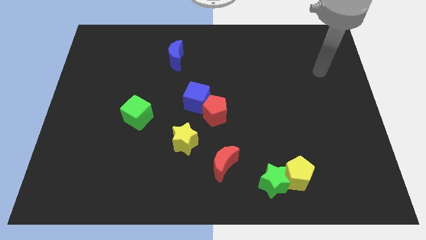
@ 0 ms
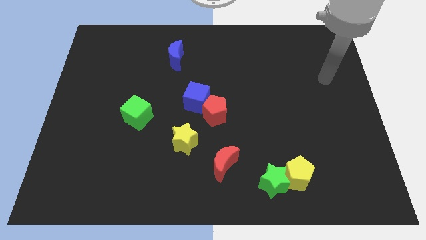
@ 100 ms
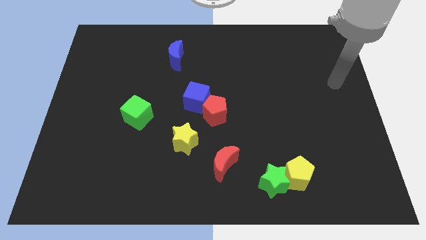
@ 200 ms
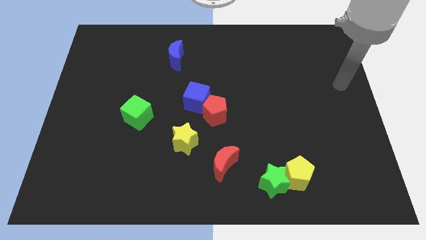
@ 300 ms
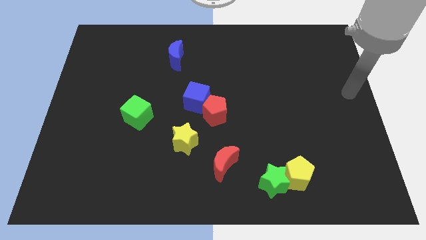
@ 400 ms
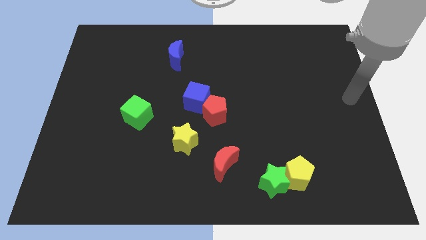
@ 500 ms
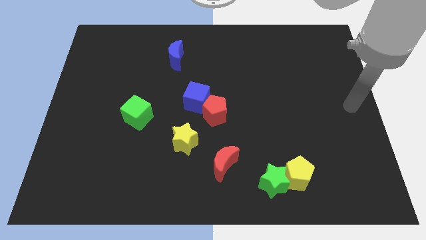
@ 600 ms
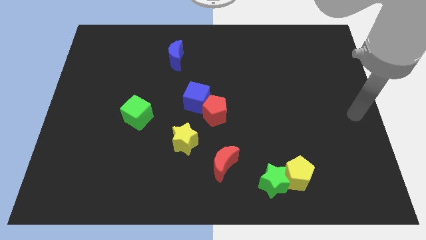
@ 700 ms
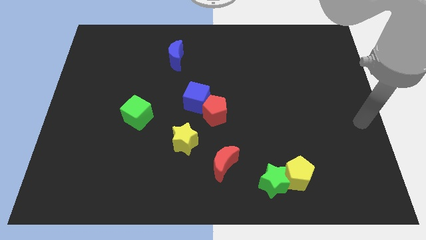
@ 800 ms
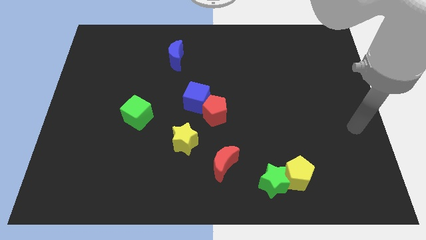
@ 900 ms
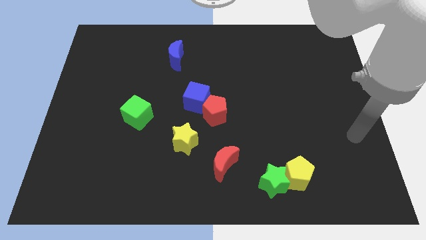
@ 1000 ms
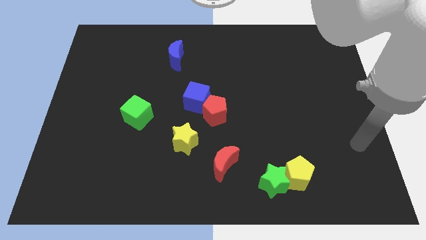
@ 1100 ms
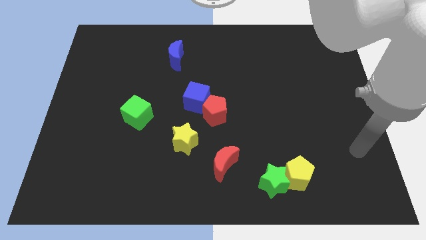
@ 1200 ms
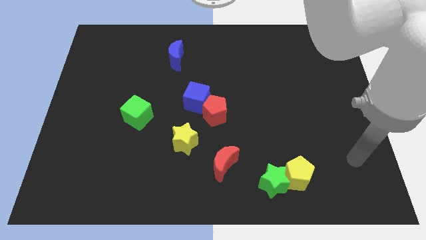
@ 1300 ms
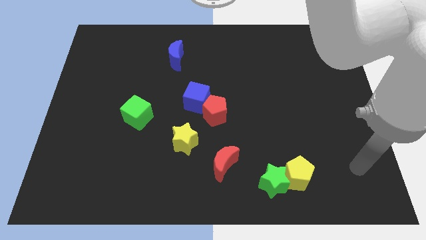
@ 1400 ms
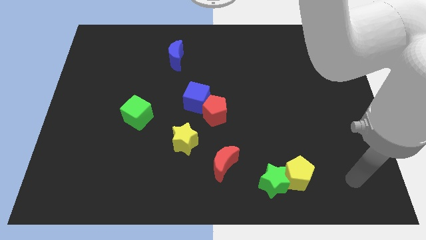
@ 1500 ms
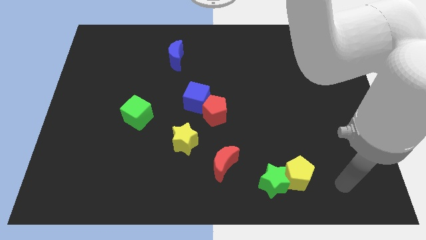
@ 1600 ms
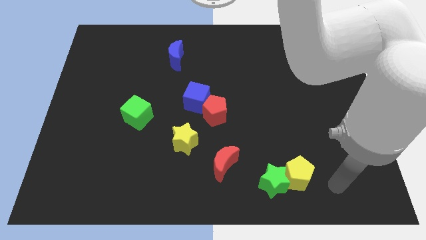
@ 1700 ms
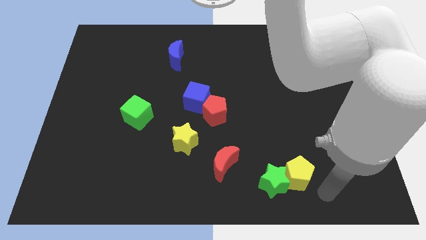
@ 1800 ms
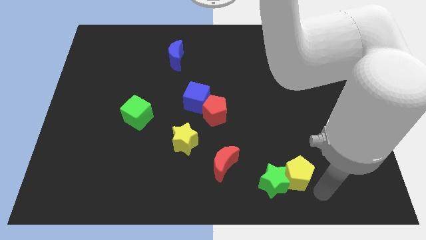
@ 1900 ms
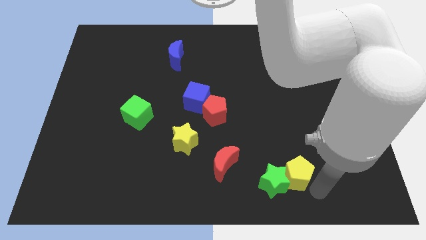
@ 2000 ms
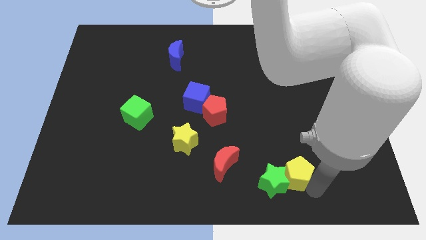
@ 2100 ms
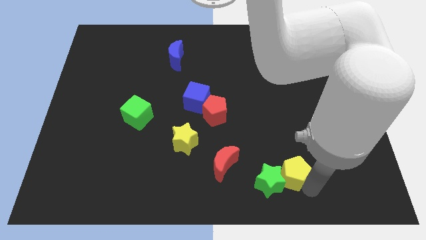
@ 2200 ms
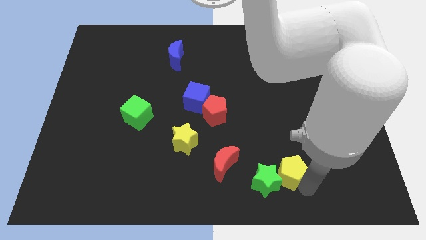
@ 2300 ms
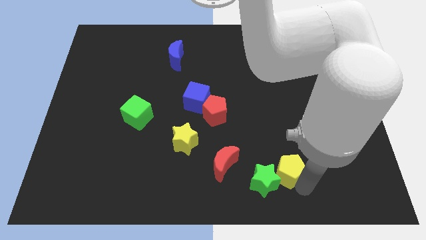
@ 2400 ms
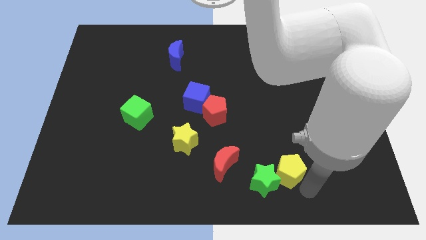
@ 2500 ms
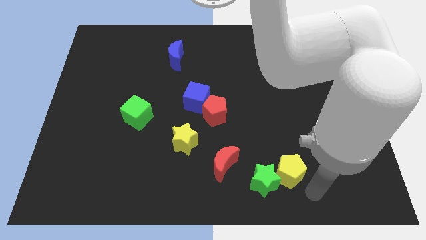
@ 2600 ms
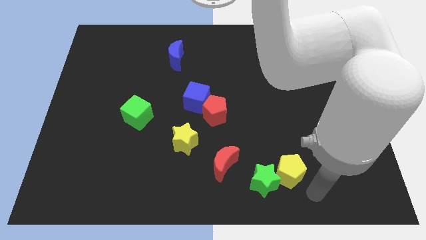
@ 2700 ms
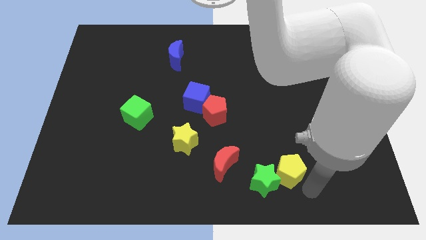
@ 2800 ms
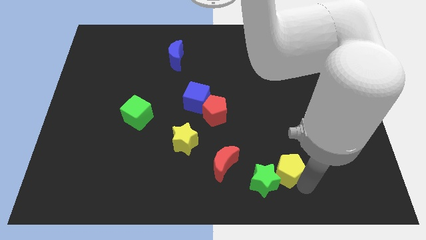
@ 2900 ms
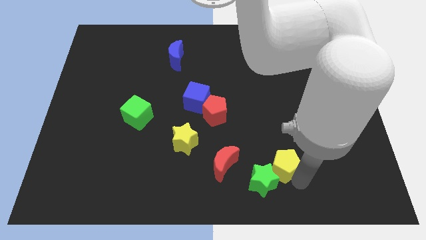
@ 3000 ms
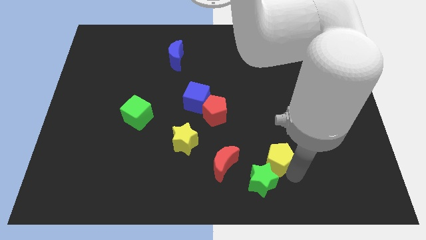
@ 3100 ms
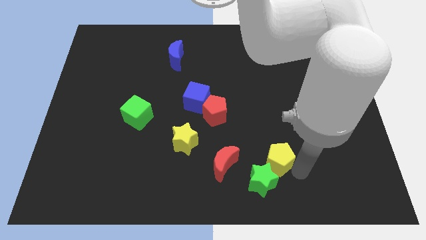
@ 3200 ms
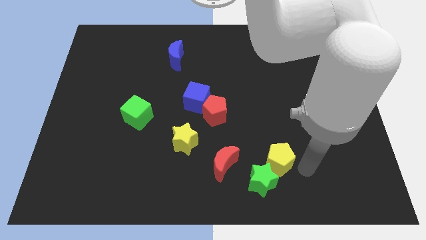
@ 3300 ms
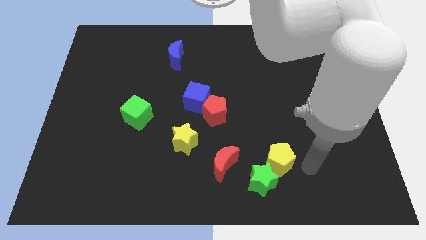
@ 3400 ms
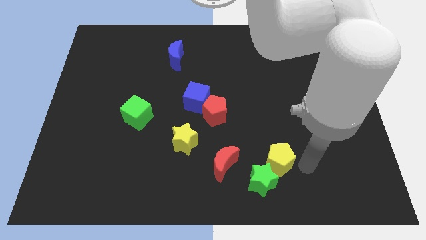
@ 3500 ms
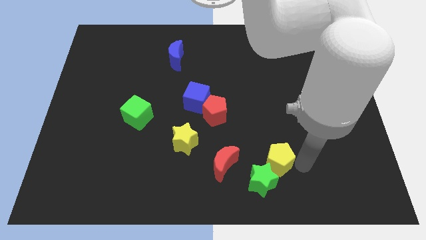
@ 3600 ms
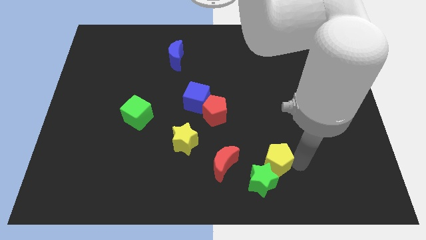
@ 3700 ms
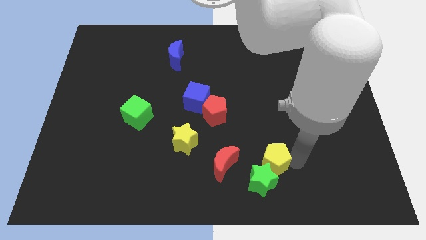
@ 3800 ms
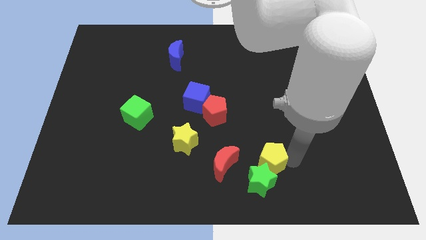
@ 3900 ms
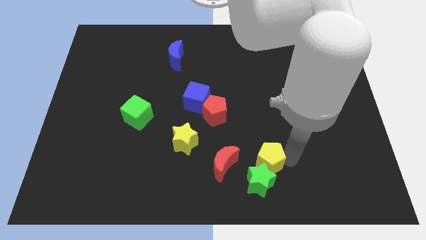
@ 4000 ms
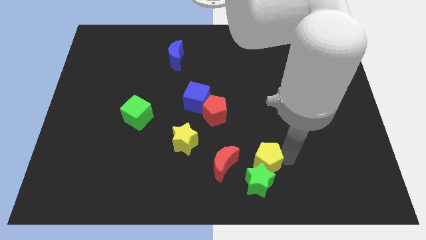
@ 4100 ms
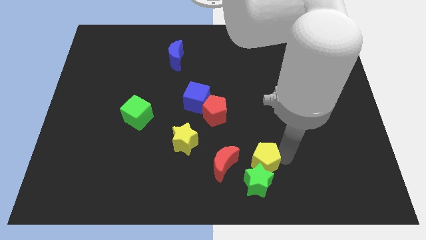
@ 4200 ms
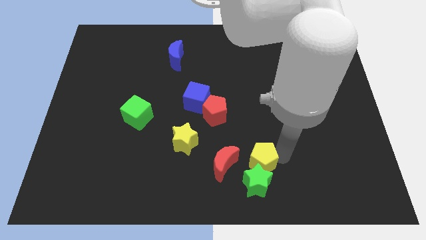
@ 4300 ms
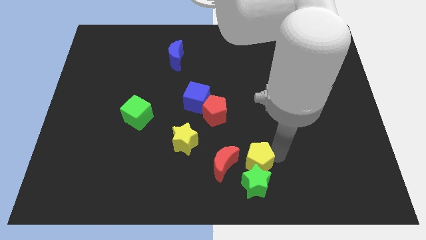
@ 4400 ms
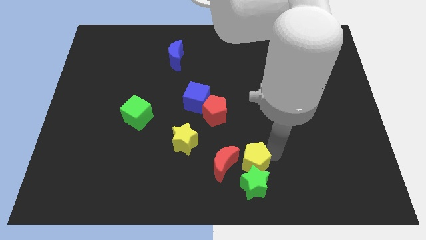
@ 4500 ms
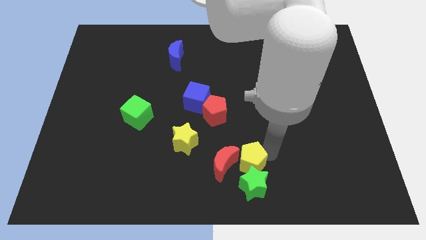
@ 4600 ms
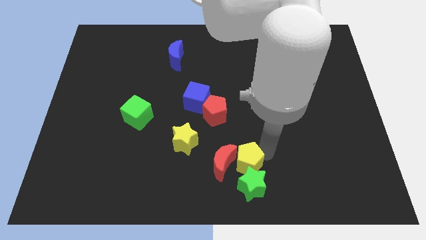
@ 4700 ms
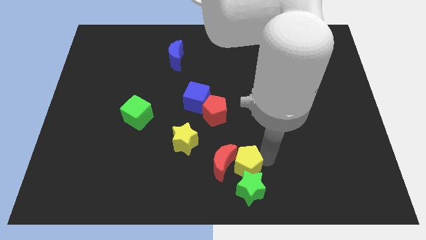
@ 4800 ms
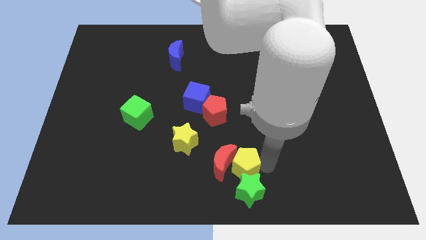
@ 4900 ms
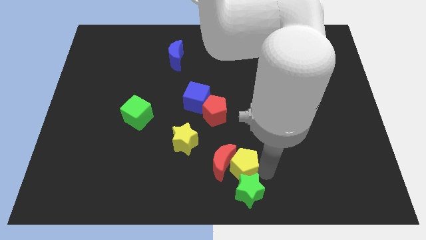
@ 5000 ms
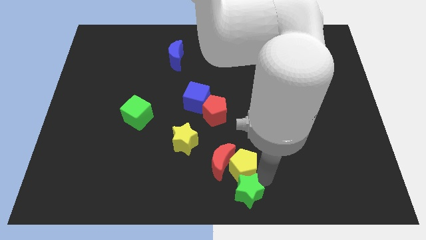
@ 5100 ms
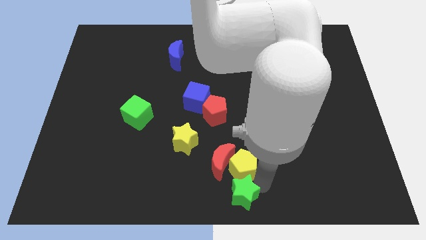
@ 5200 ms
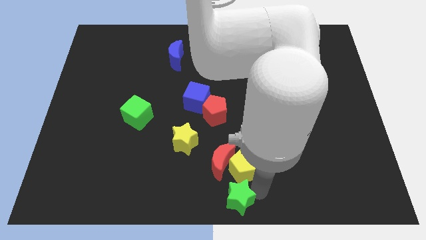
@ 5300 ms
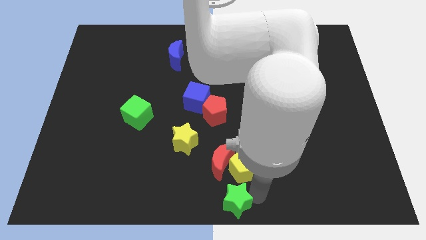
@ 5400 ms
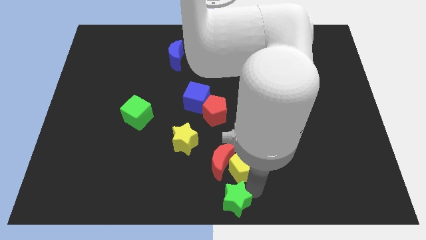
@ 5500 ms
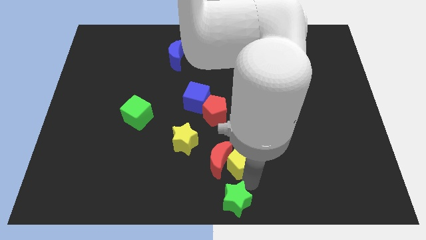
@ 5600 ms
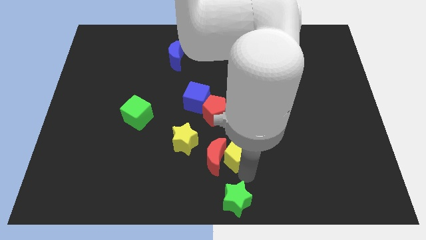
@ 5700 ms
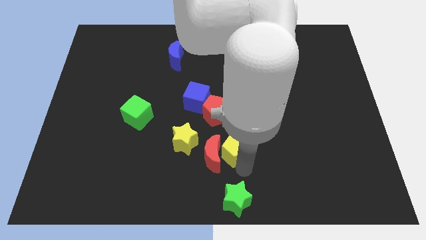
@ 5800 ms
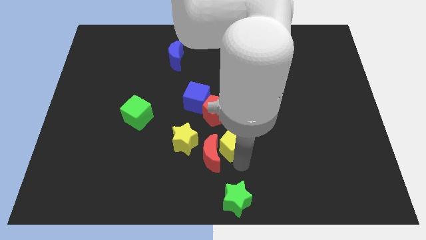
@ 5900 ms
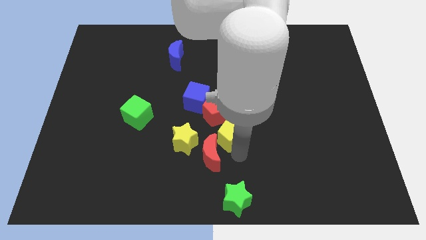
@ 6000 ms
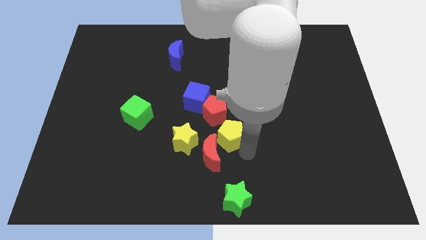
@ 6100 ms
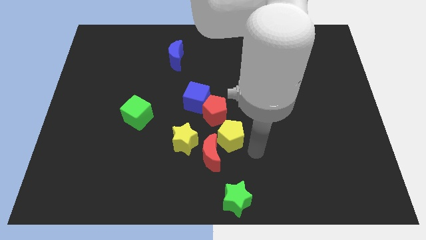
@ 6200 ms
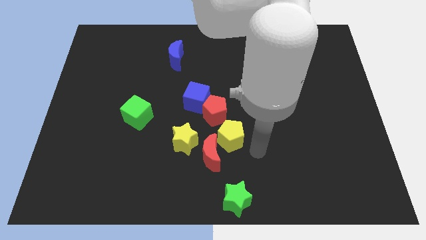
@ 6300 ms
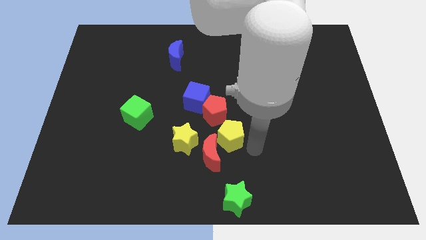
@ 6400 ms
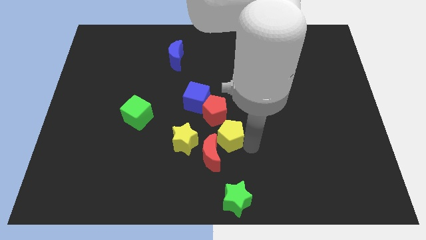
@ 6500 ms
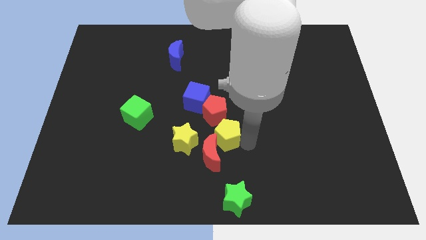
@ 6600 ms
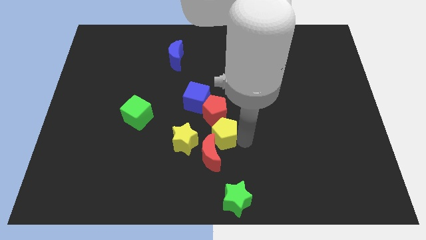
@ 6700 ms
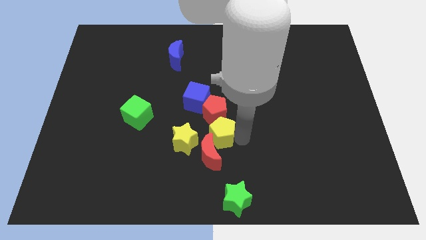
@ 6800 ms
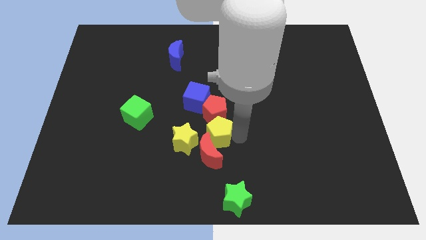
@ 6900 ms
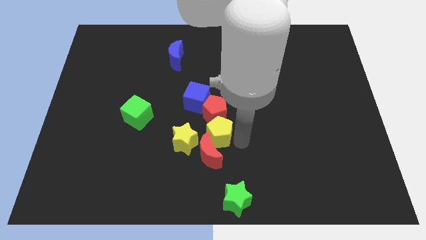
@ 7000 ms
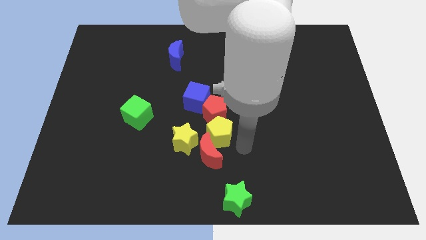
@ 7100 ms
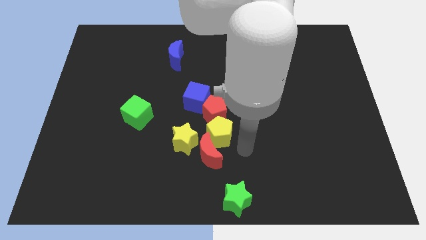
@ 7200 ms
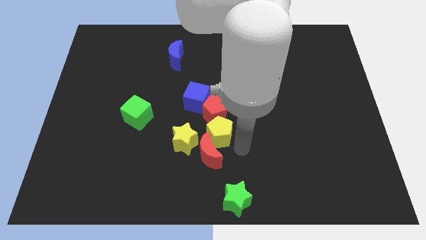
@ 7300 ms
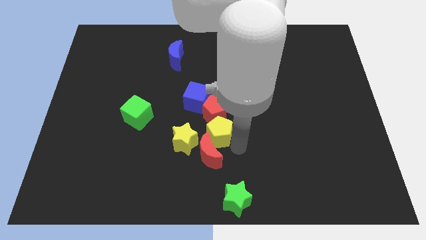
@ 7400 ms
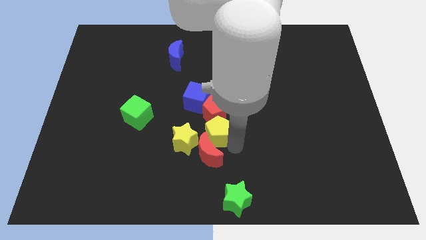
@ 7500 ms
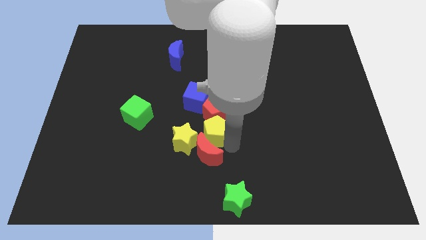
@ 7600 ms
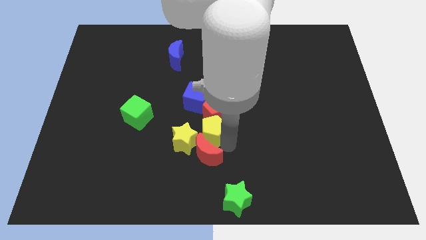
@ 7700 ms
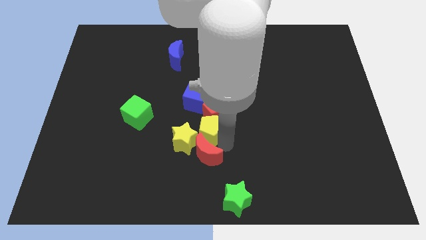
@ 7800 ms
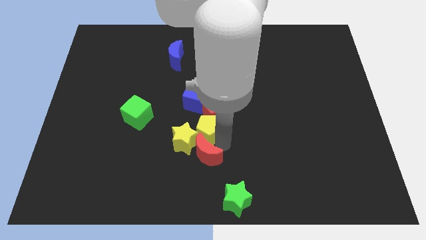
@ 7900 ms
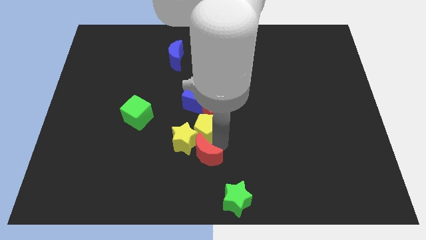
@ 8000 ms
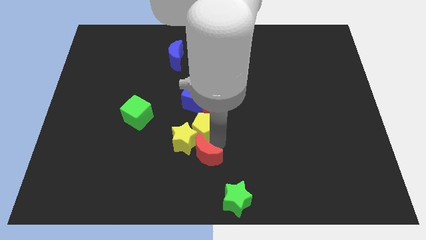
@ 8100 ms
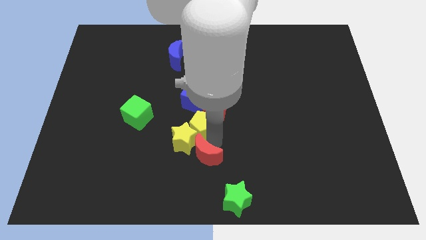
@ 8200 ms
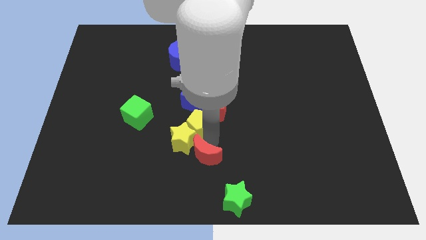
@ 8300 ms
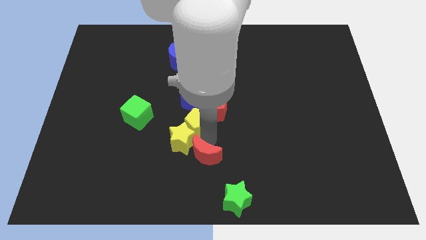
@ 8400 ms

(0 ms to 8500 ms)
put the yellow pentagon just left of the red pentagon
